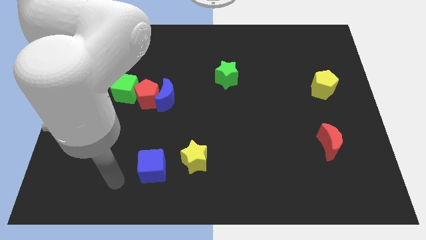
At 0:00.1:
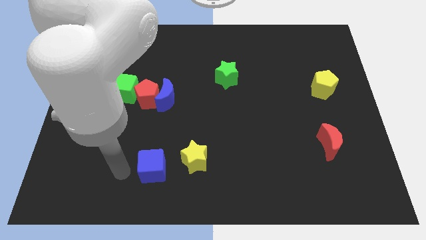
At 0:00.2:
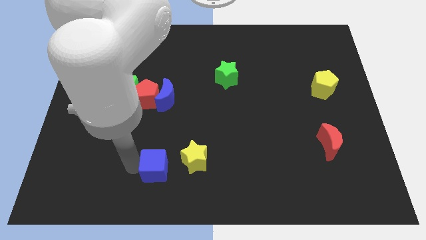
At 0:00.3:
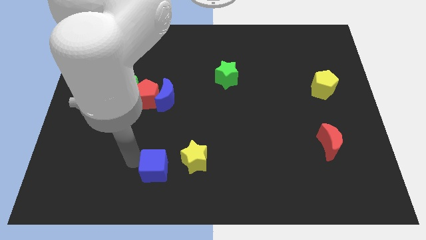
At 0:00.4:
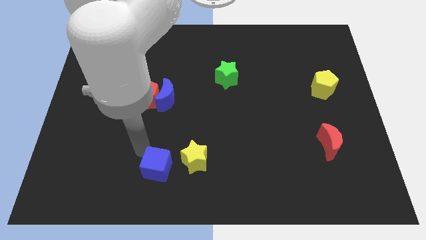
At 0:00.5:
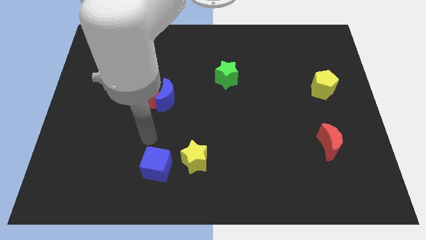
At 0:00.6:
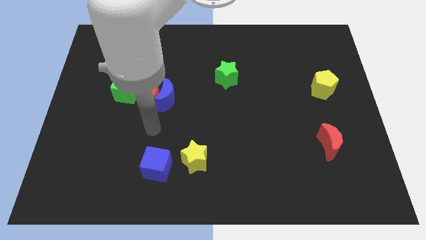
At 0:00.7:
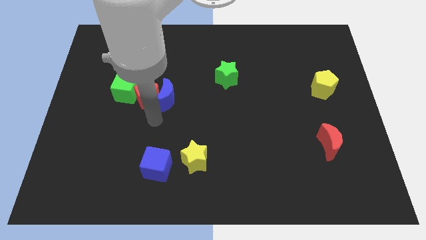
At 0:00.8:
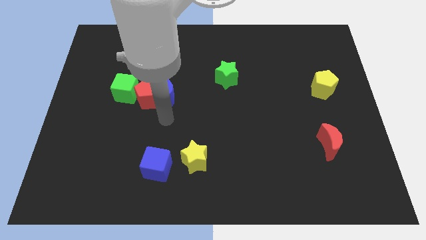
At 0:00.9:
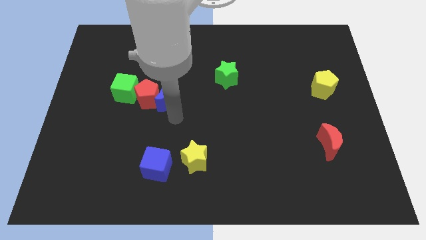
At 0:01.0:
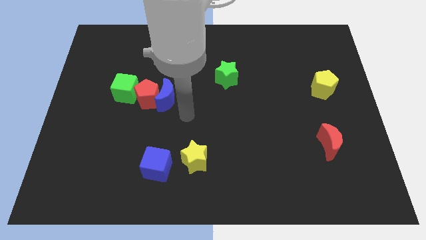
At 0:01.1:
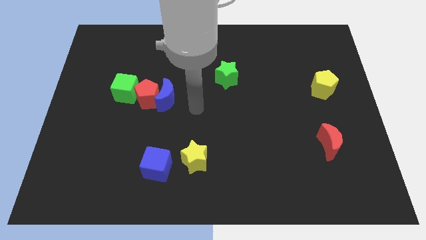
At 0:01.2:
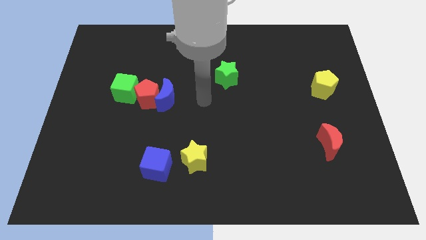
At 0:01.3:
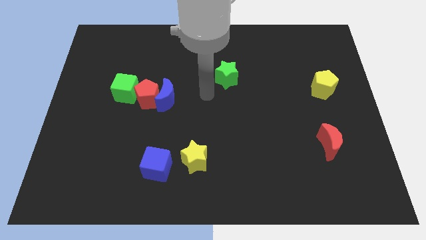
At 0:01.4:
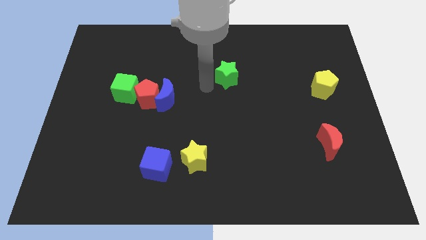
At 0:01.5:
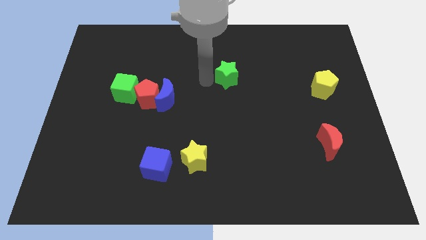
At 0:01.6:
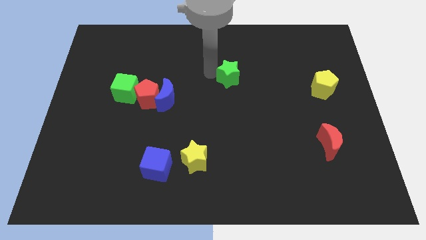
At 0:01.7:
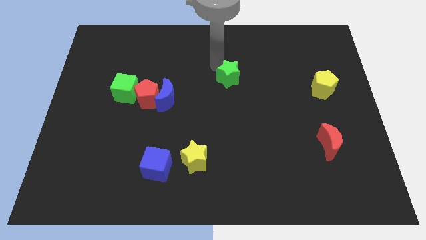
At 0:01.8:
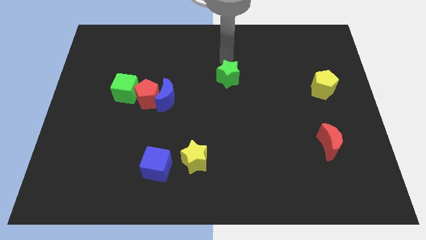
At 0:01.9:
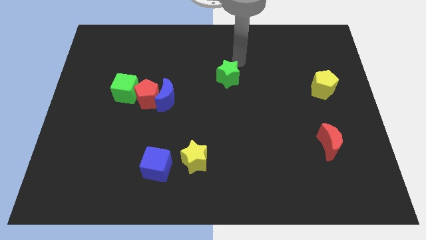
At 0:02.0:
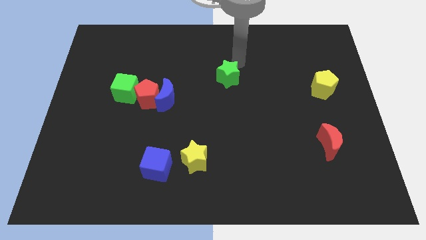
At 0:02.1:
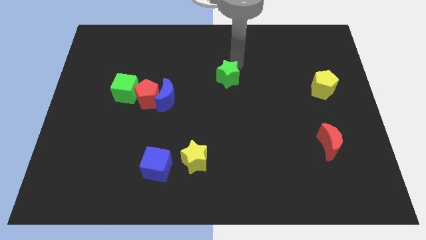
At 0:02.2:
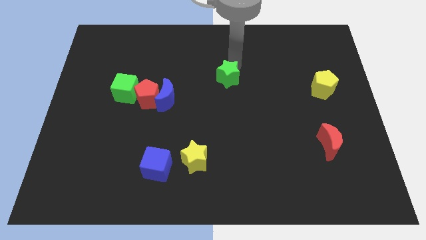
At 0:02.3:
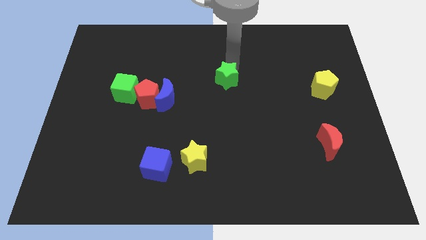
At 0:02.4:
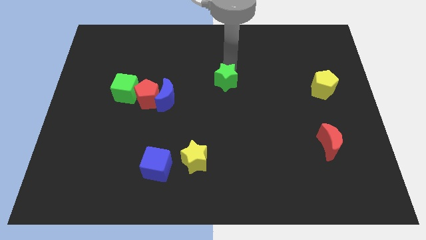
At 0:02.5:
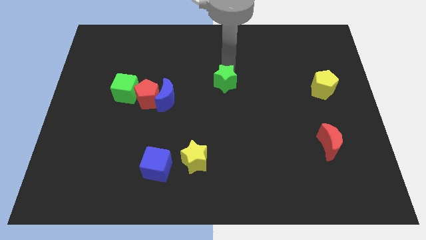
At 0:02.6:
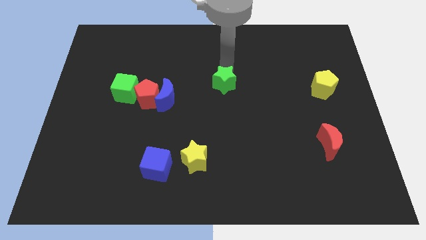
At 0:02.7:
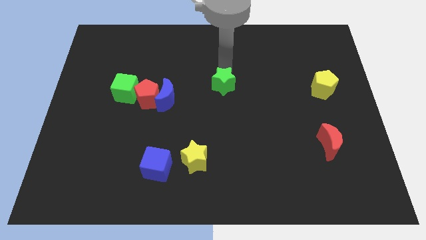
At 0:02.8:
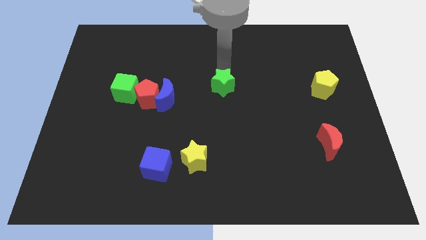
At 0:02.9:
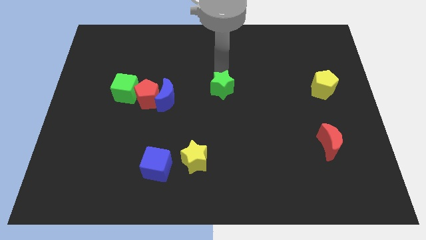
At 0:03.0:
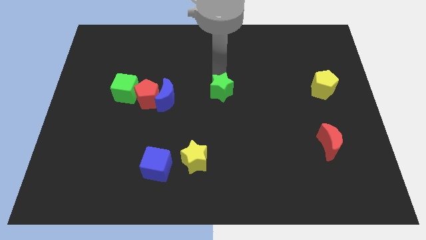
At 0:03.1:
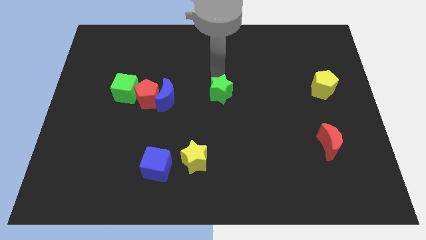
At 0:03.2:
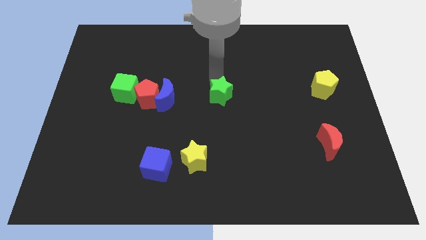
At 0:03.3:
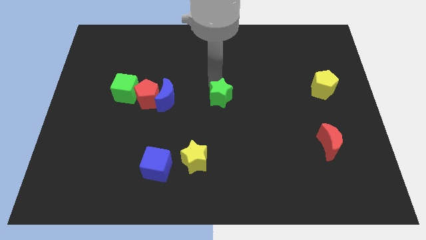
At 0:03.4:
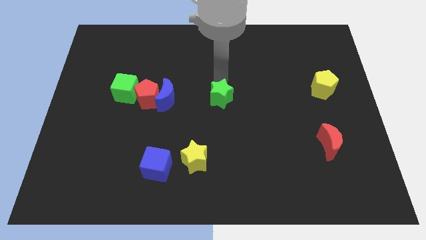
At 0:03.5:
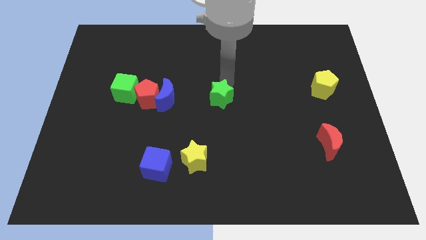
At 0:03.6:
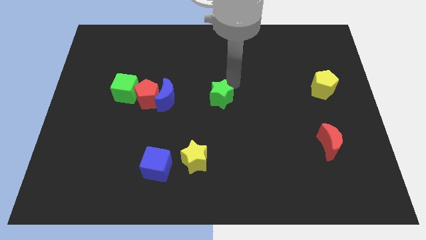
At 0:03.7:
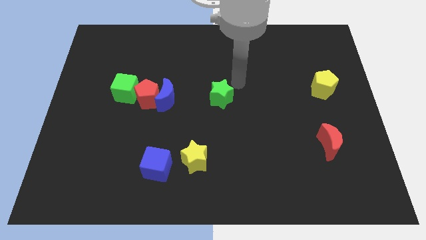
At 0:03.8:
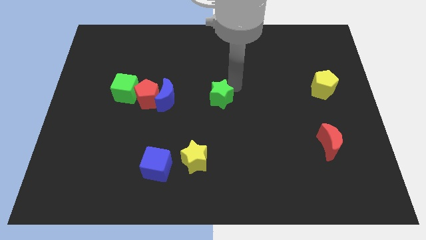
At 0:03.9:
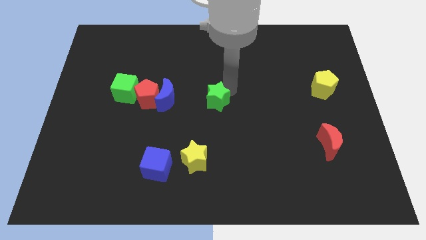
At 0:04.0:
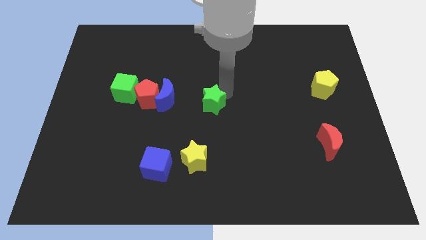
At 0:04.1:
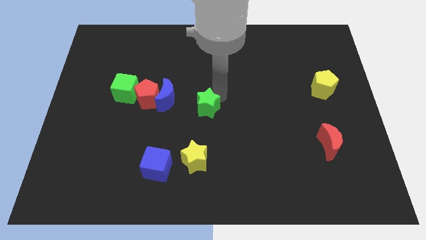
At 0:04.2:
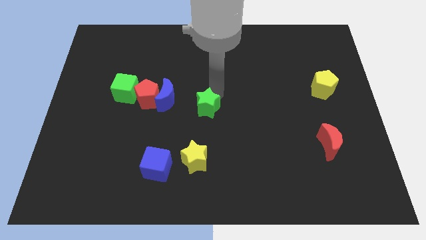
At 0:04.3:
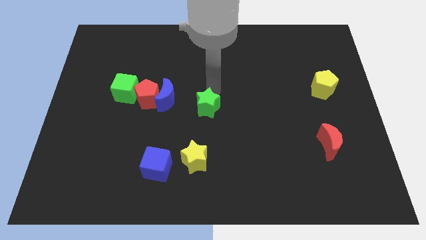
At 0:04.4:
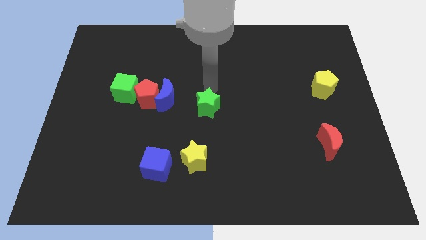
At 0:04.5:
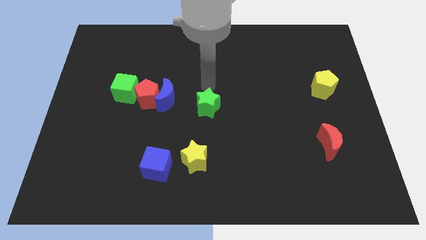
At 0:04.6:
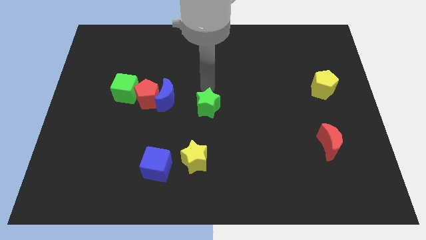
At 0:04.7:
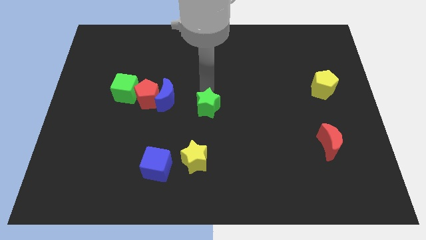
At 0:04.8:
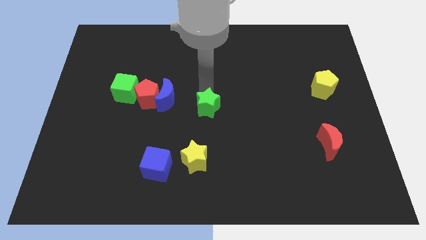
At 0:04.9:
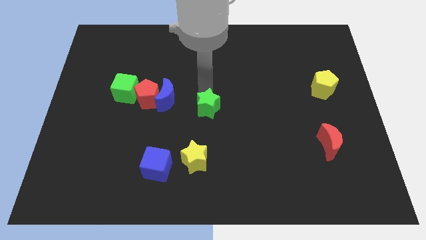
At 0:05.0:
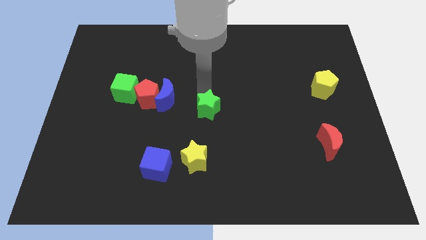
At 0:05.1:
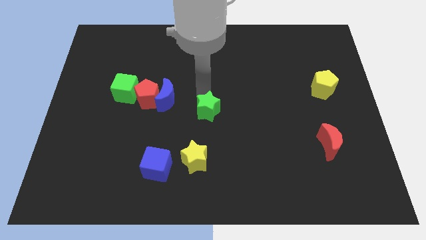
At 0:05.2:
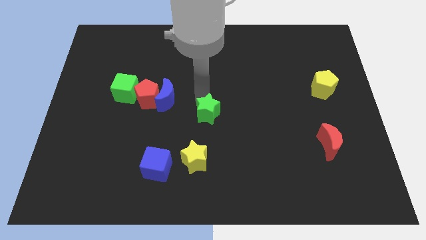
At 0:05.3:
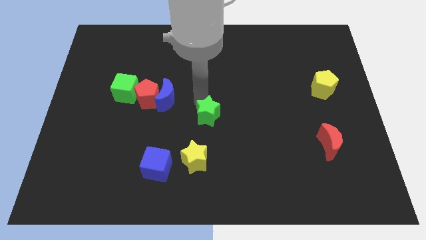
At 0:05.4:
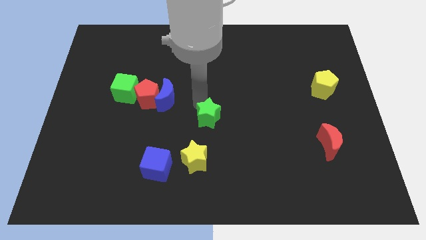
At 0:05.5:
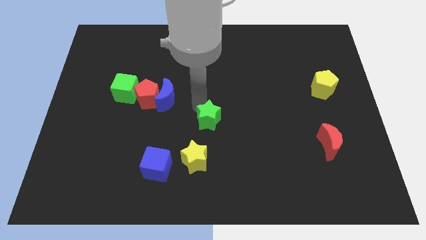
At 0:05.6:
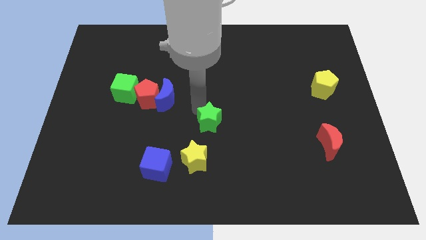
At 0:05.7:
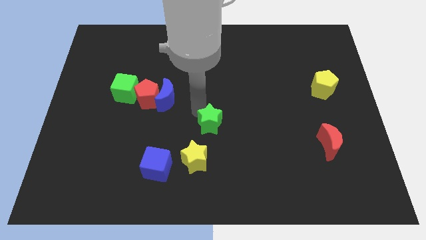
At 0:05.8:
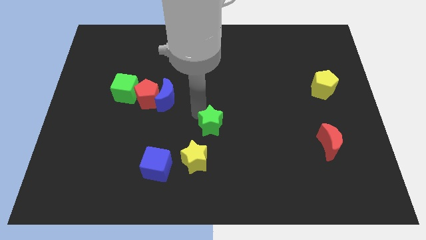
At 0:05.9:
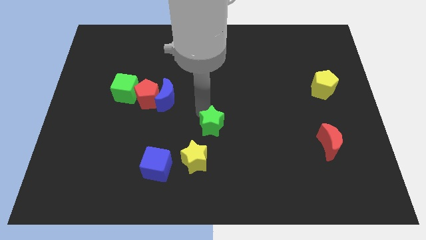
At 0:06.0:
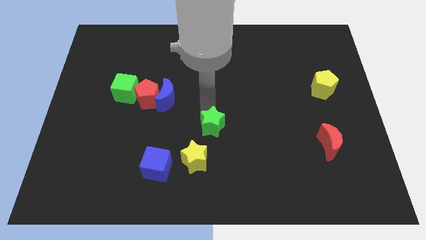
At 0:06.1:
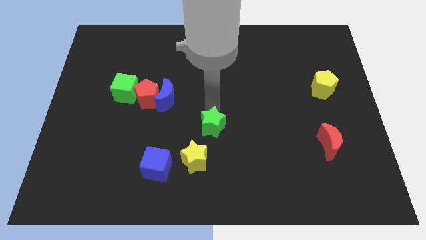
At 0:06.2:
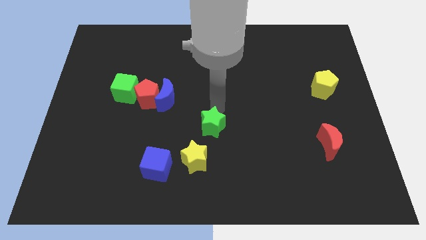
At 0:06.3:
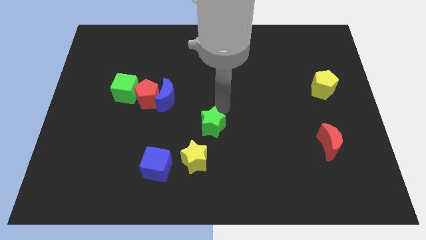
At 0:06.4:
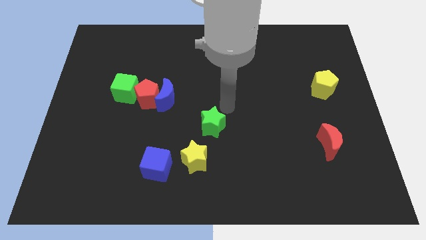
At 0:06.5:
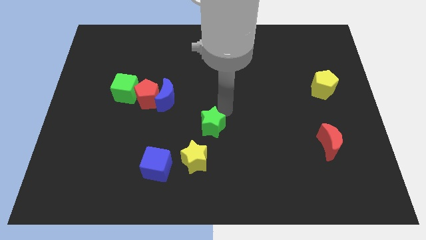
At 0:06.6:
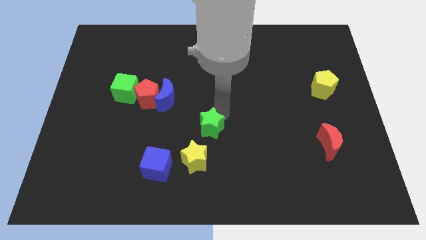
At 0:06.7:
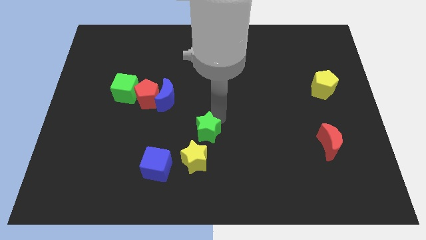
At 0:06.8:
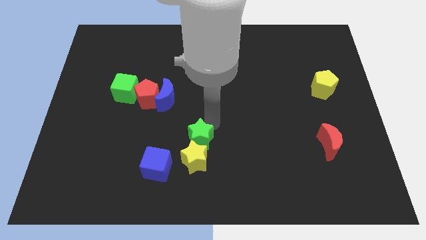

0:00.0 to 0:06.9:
push the green star towards the yellow star
